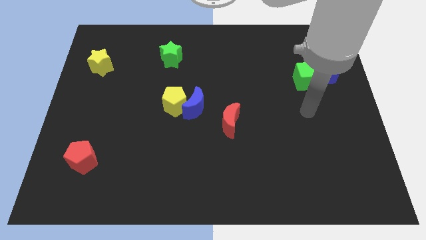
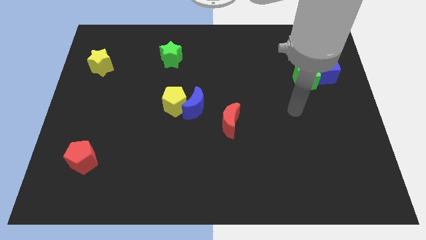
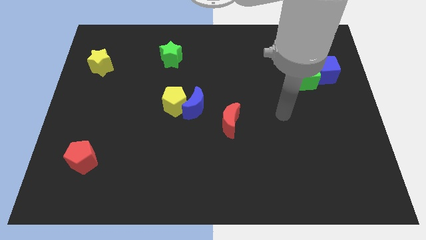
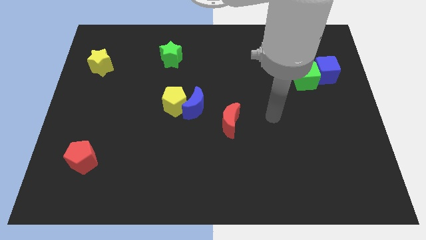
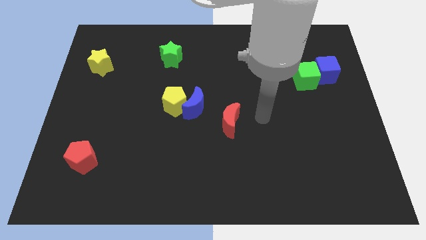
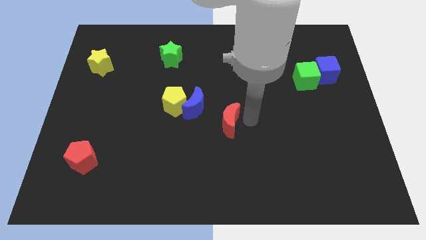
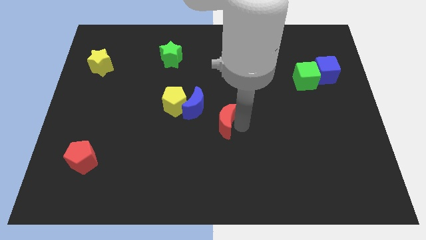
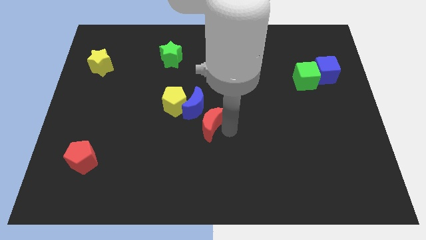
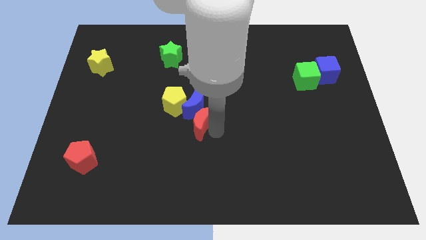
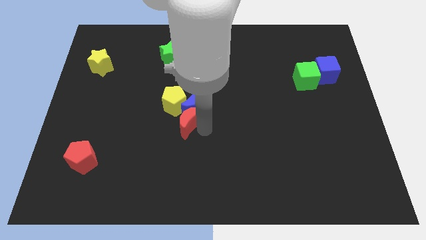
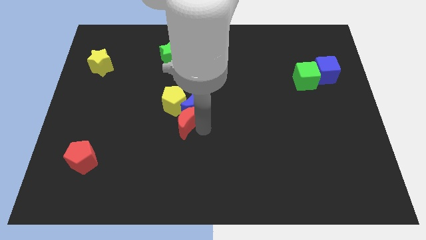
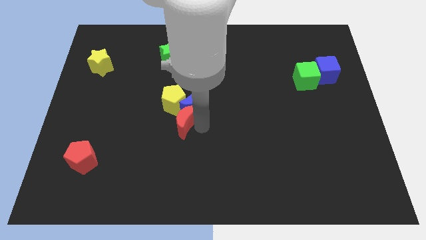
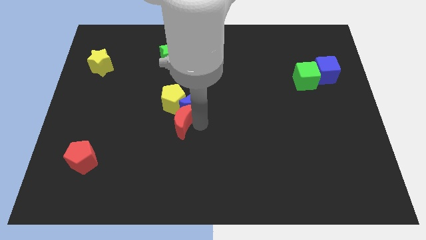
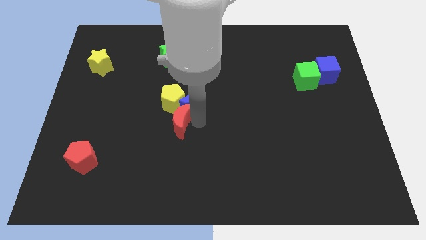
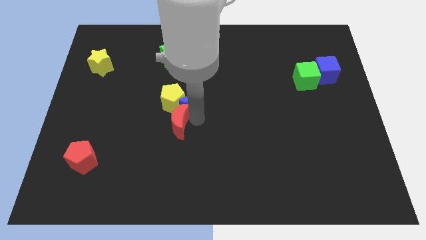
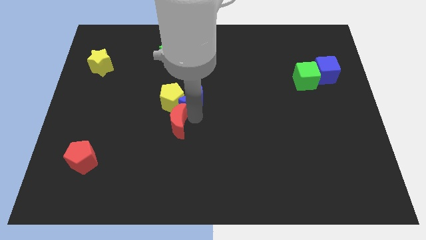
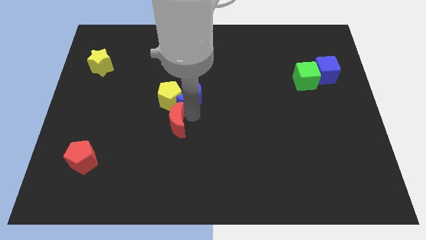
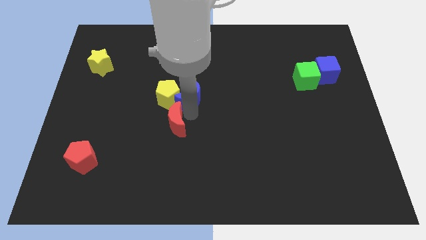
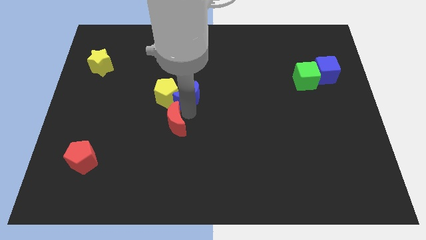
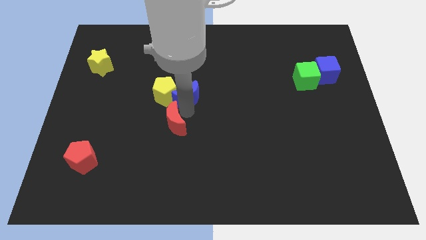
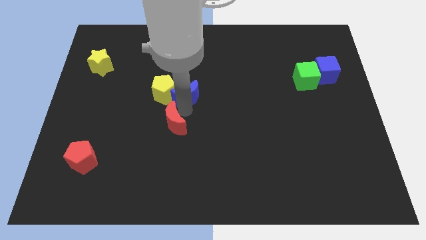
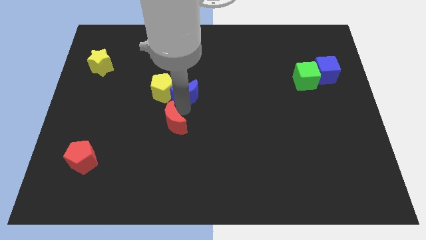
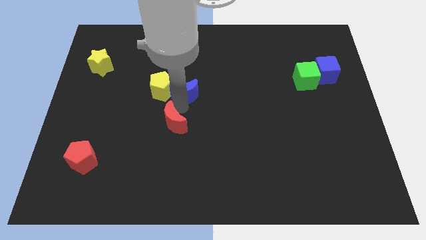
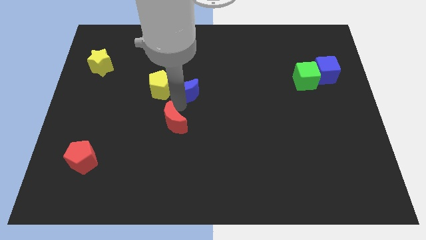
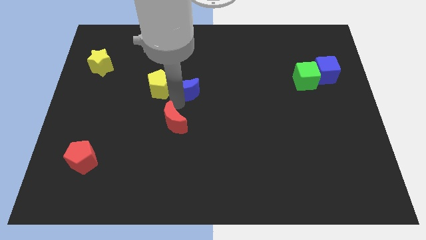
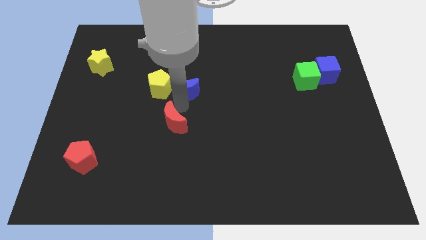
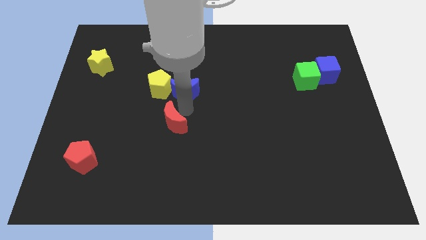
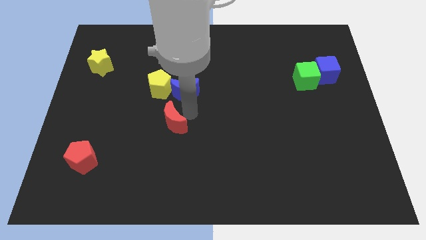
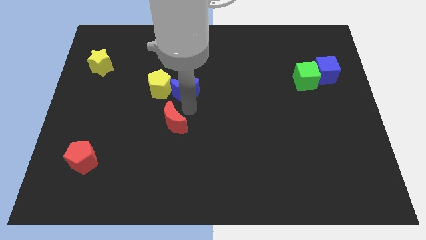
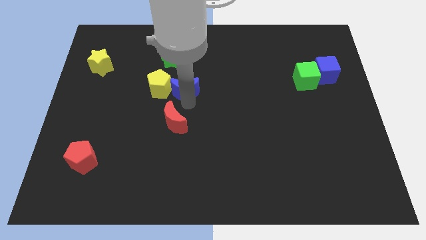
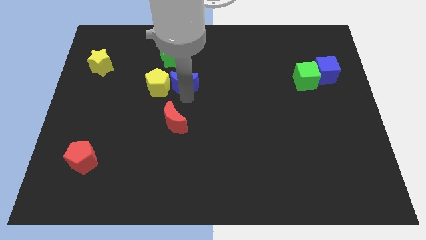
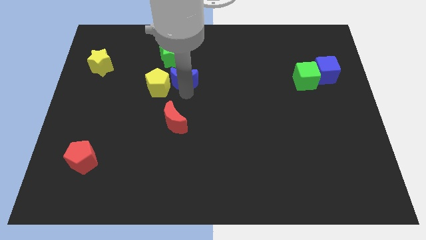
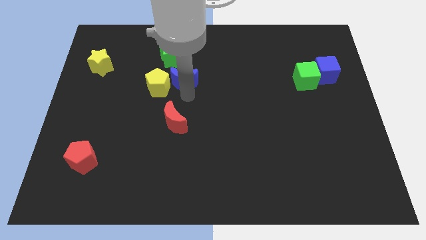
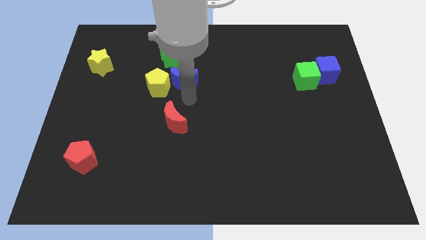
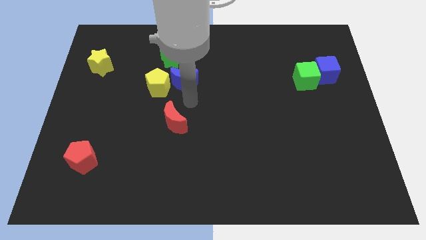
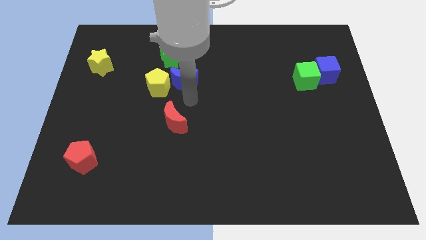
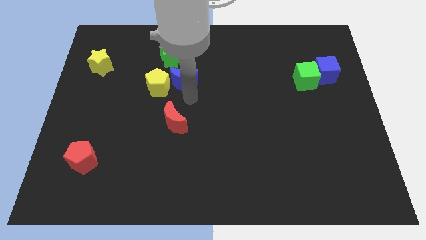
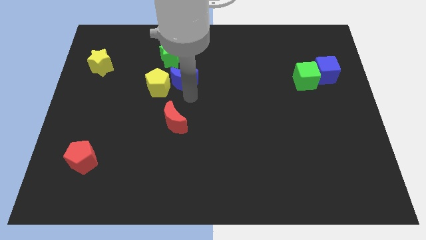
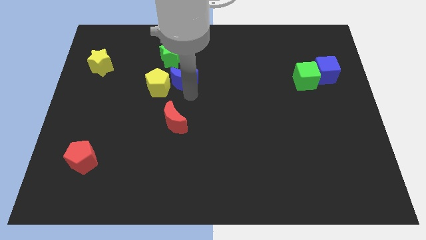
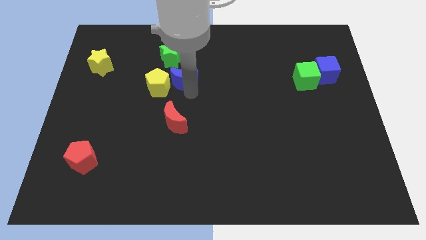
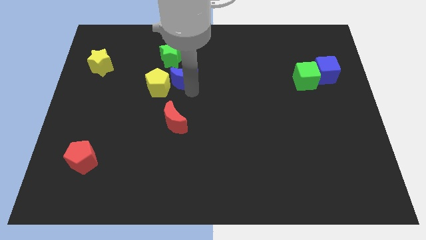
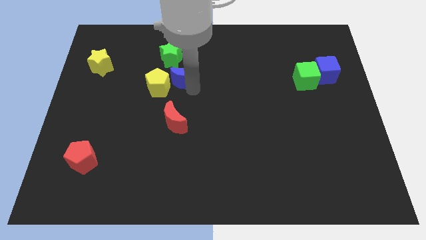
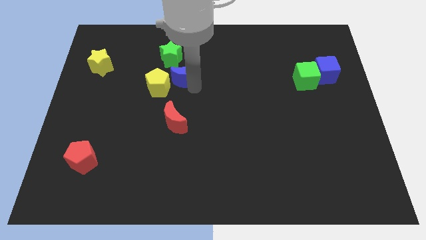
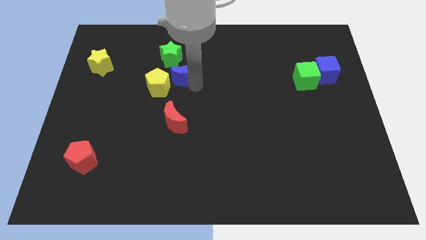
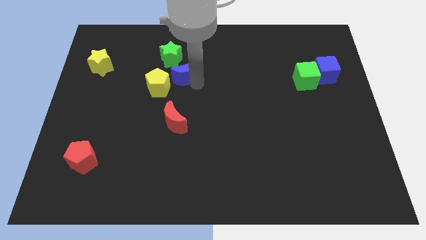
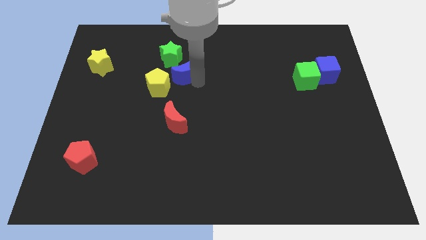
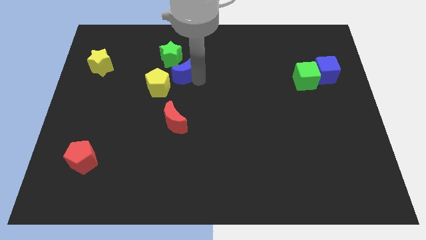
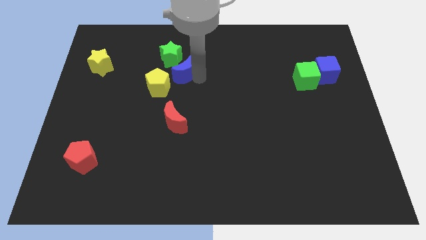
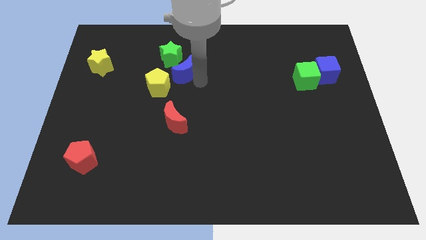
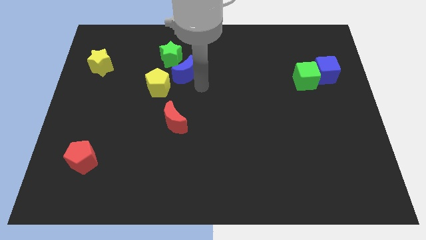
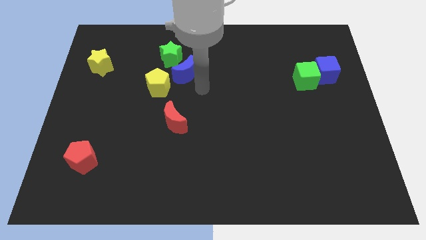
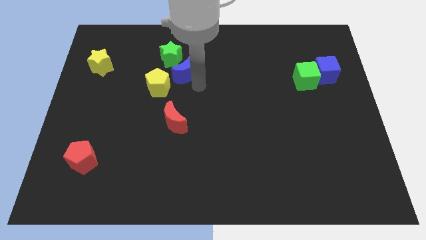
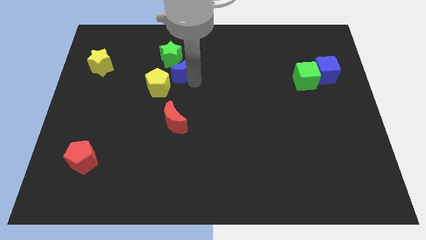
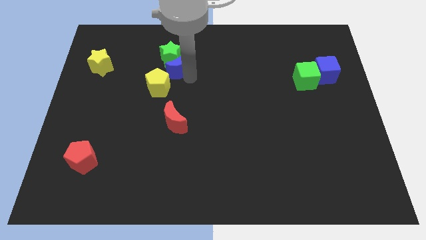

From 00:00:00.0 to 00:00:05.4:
push the blue moon towards the green star

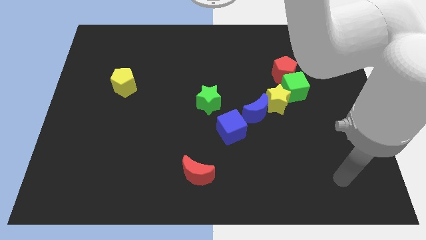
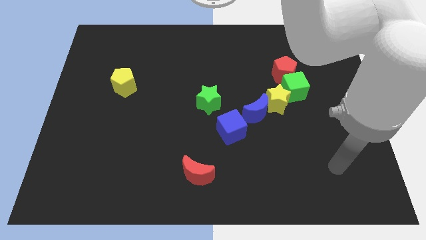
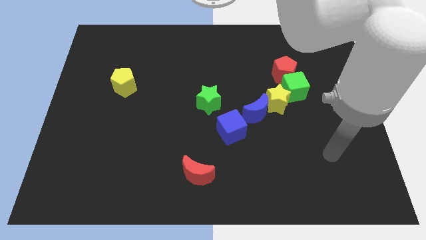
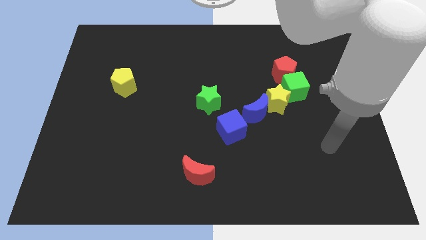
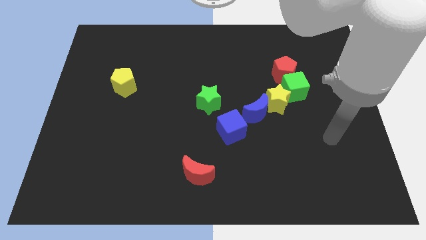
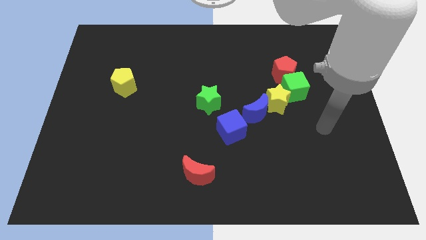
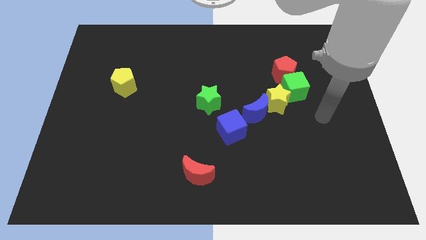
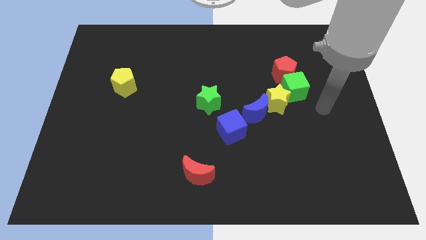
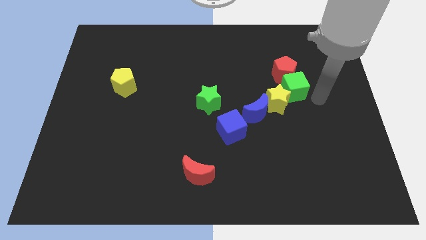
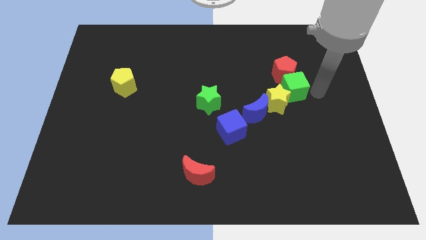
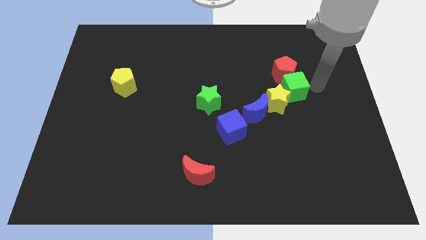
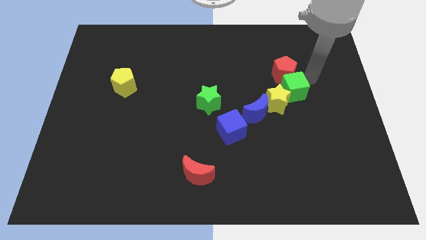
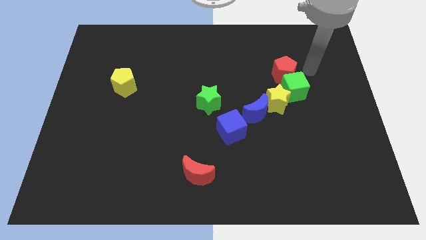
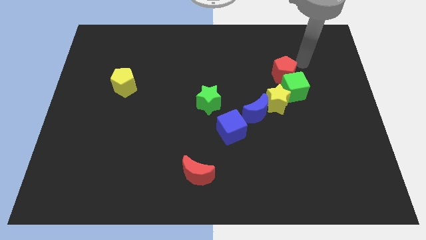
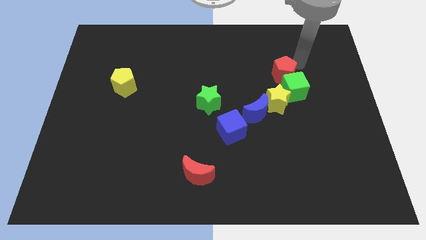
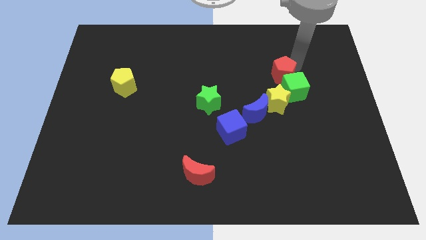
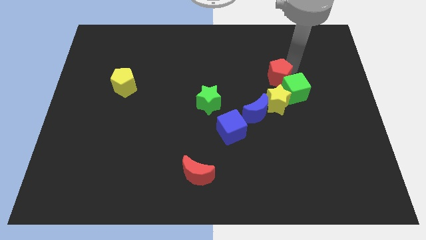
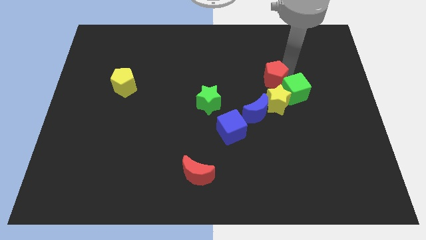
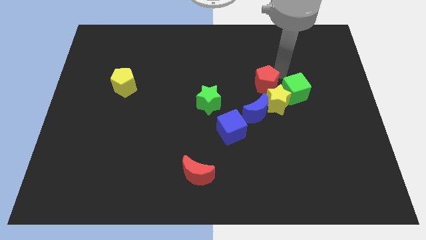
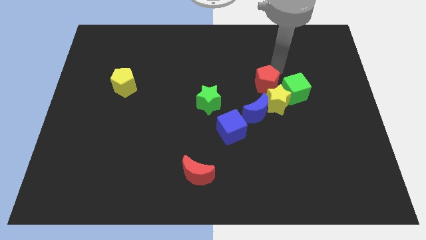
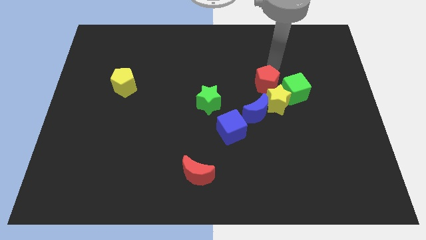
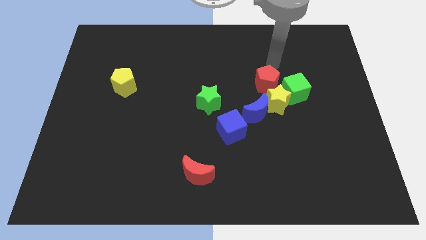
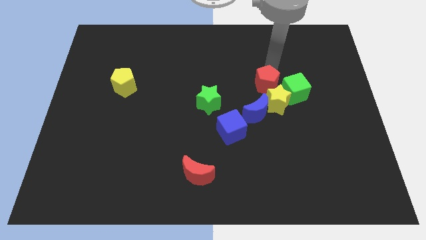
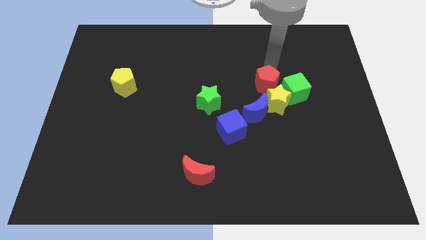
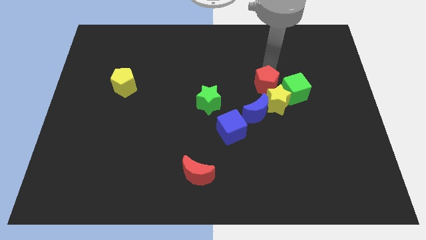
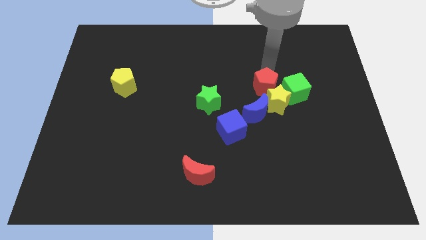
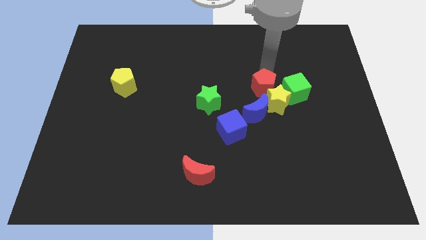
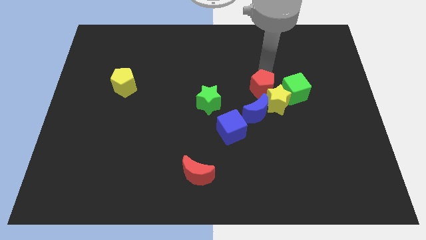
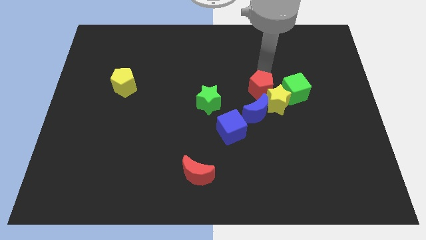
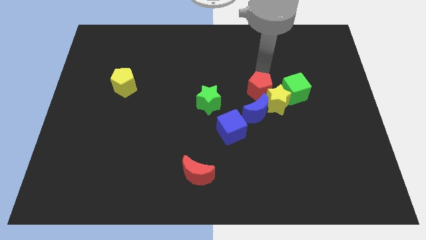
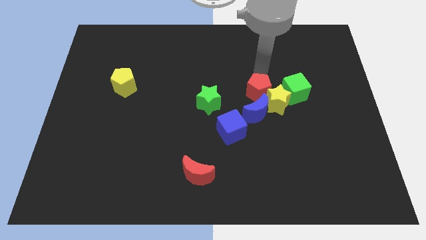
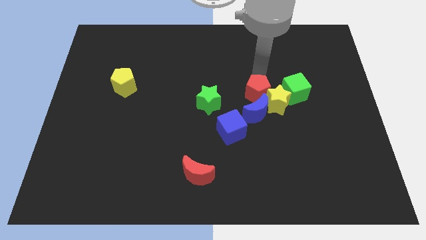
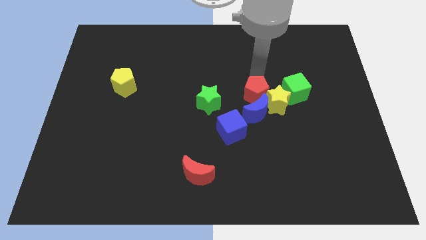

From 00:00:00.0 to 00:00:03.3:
put the red pentagon close to the blue moon
